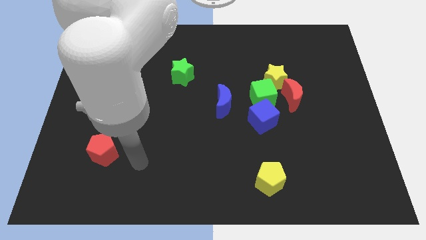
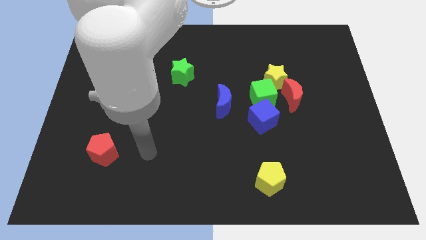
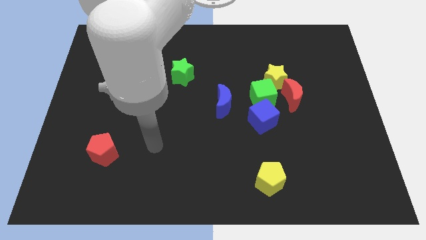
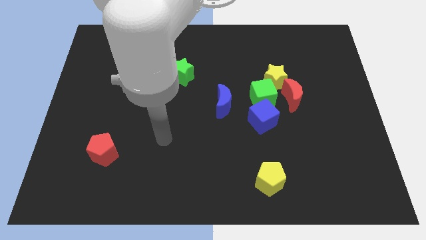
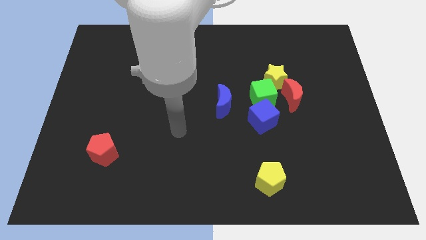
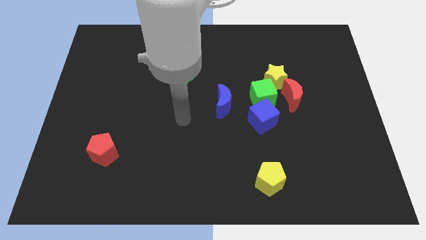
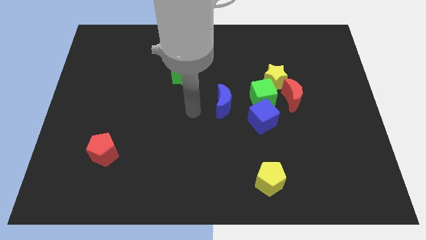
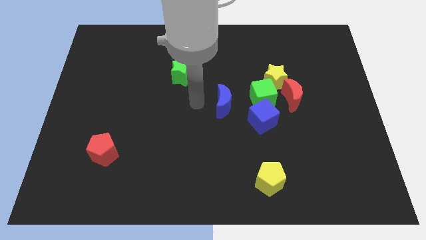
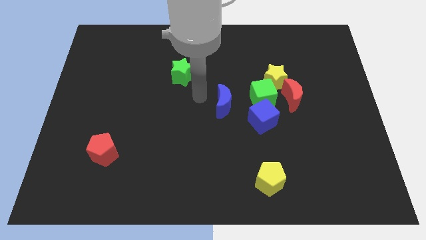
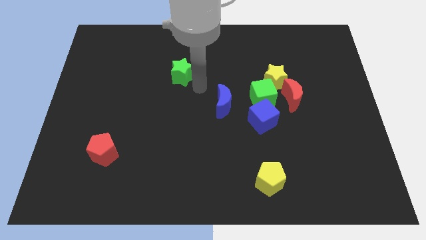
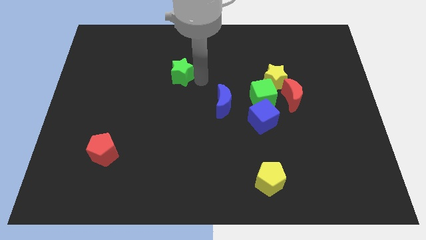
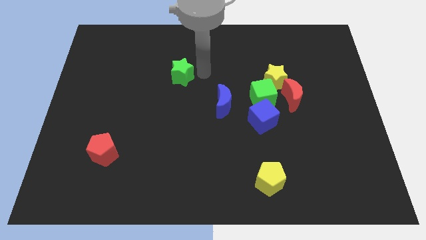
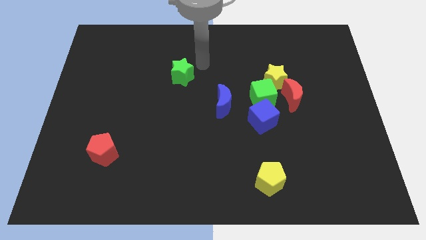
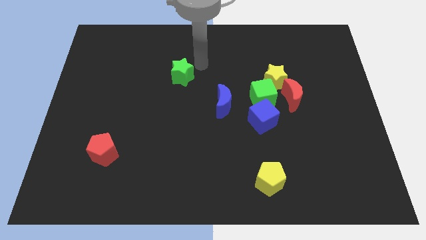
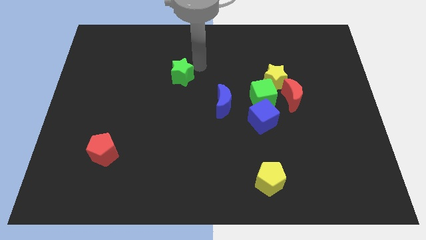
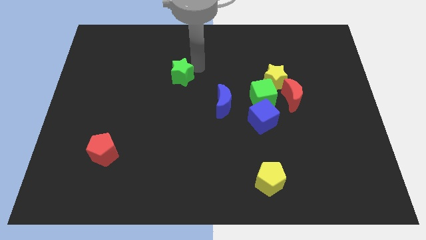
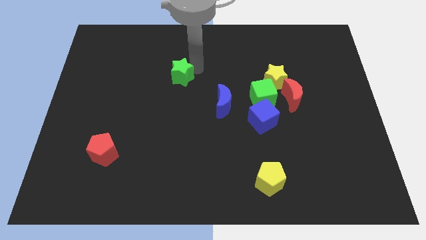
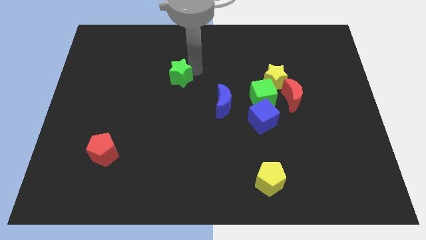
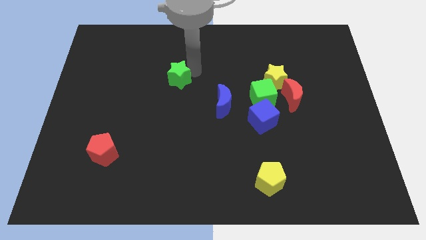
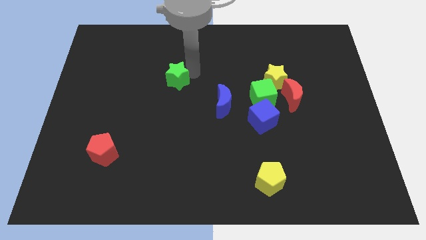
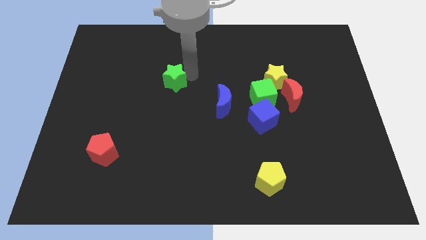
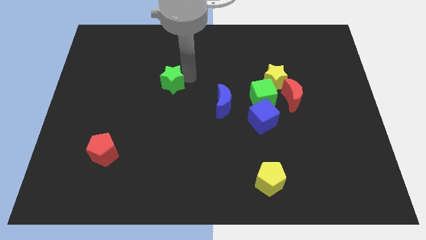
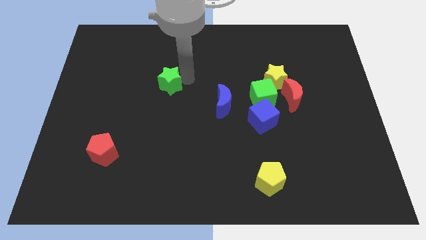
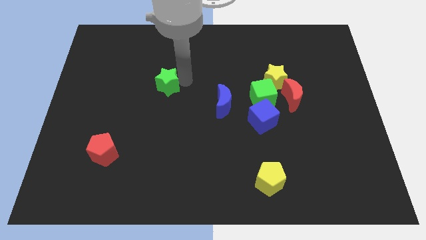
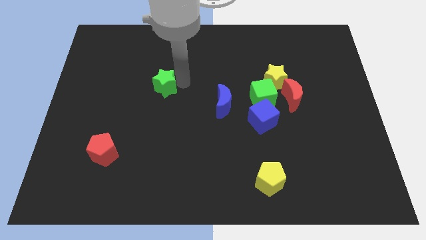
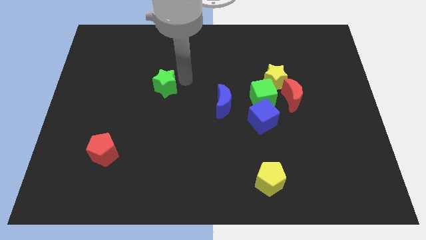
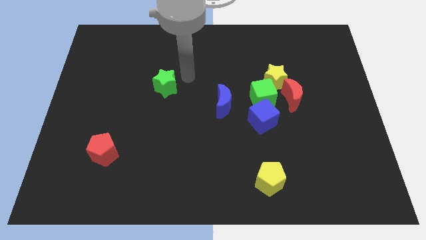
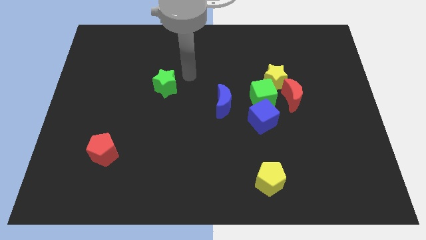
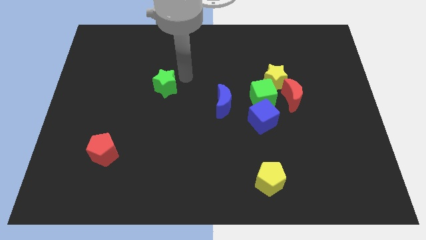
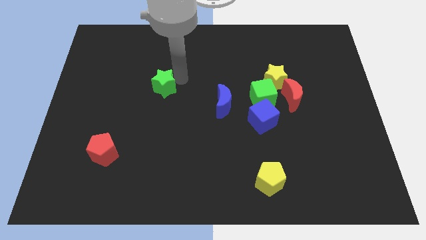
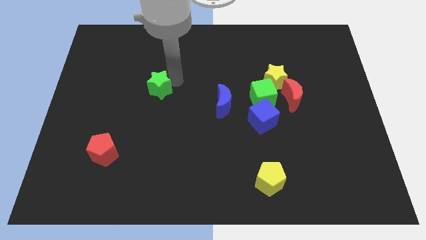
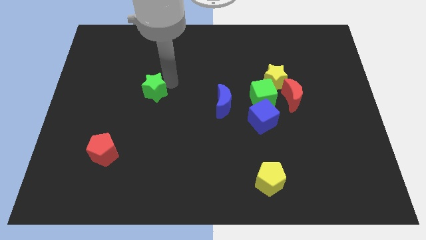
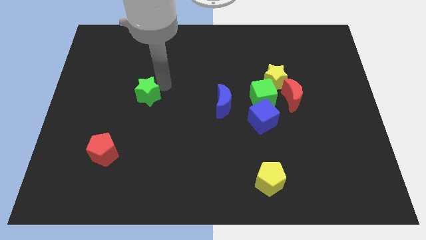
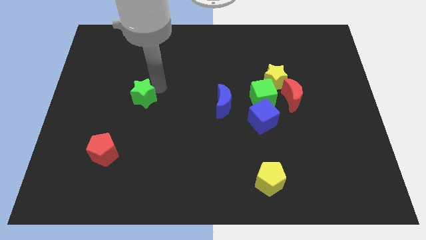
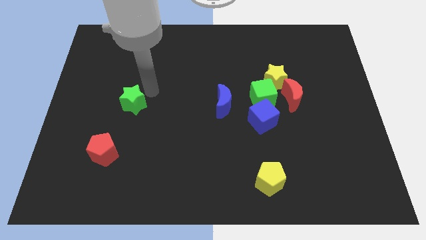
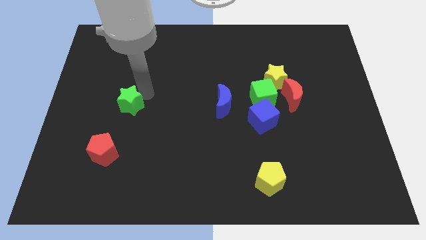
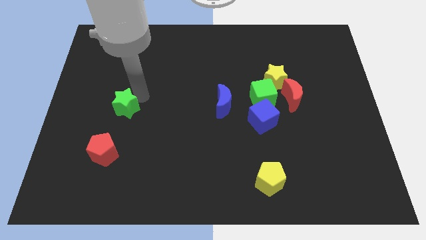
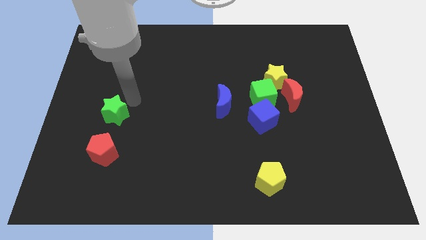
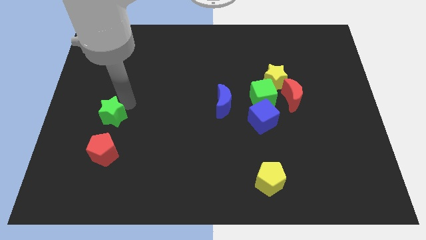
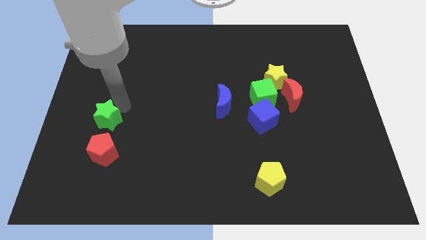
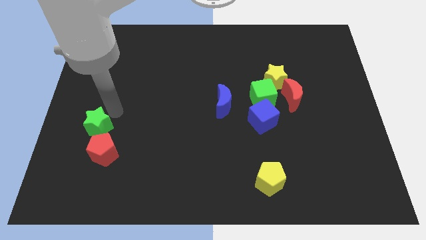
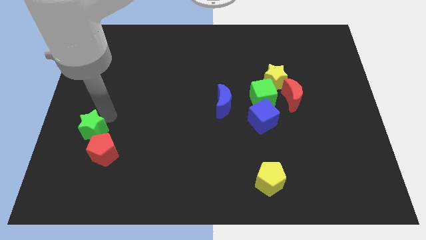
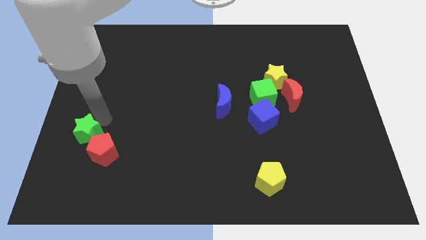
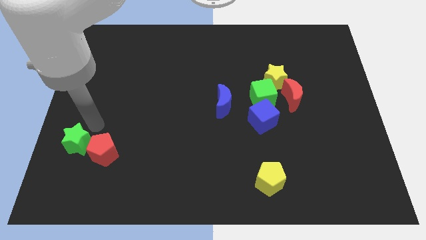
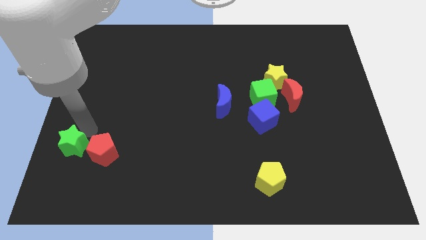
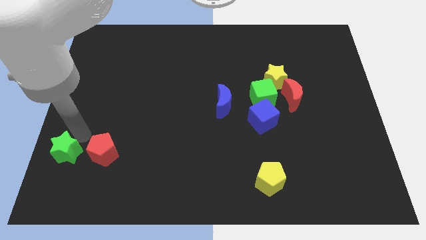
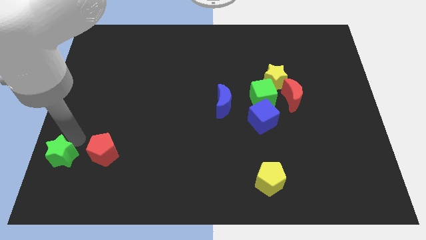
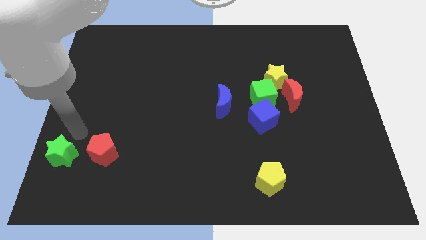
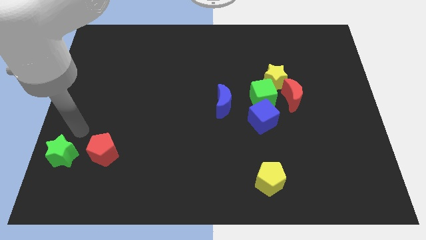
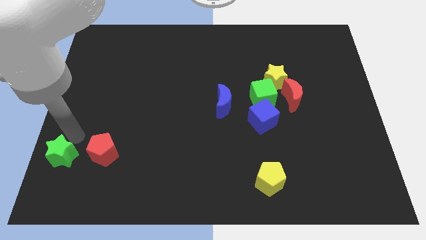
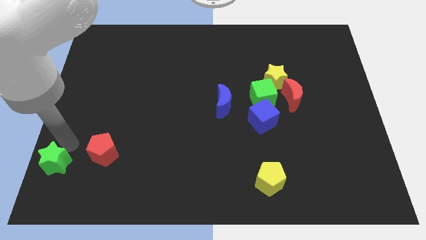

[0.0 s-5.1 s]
move the green star to the lower left corner

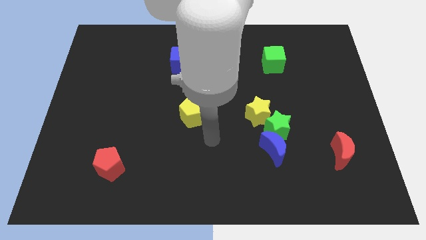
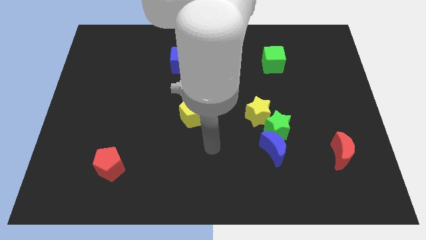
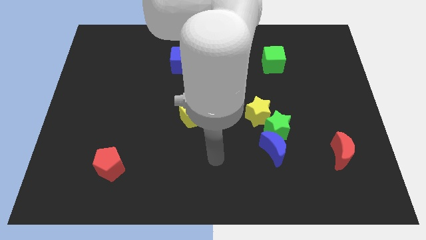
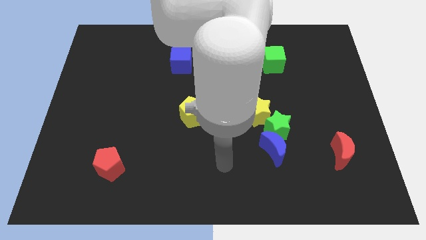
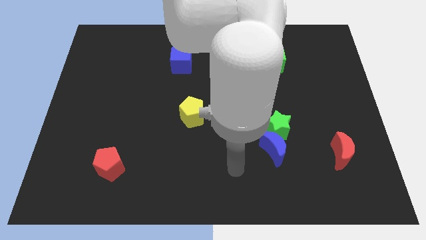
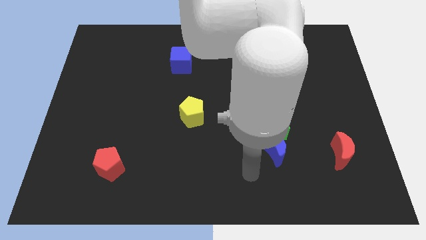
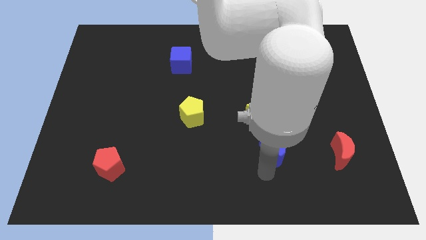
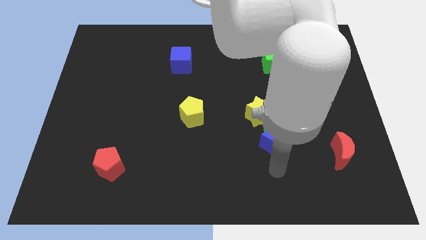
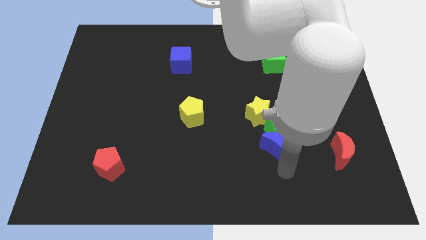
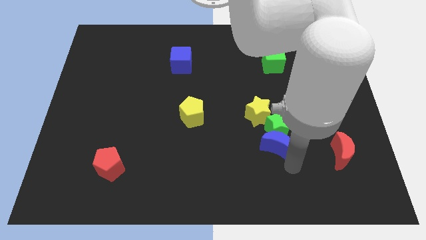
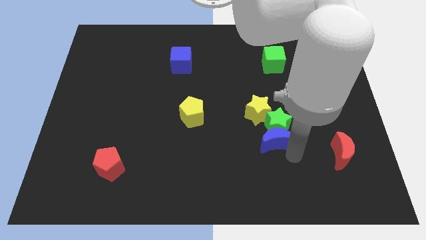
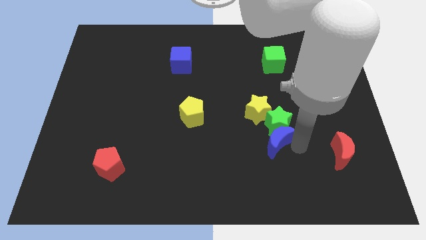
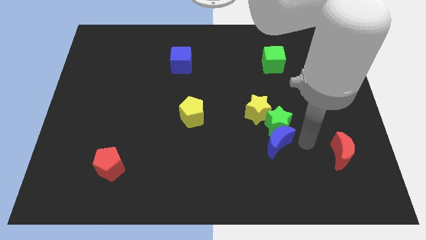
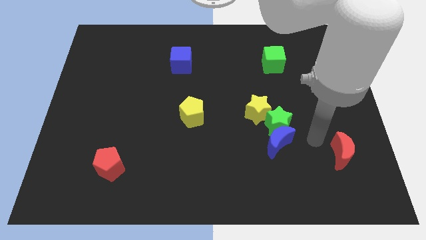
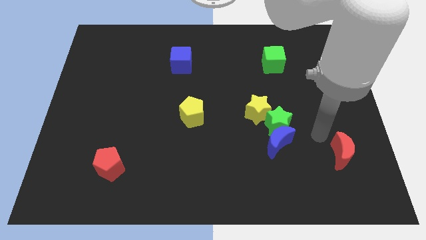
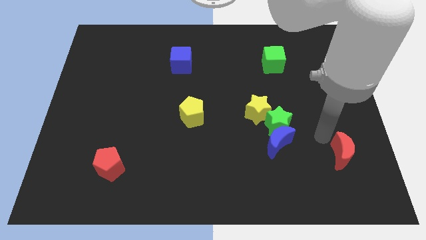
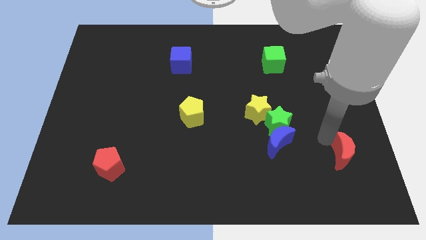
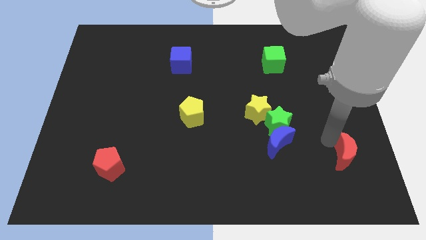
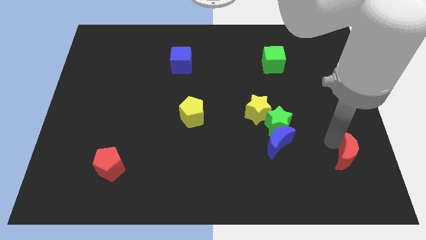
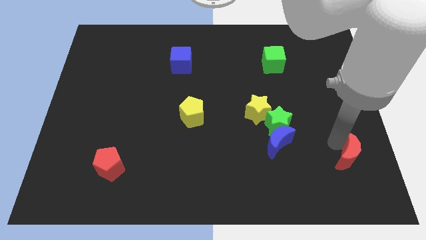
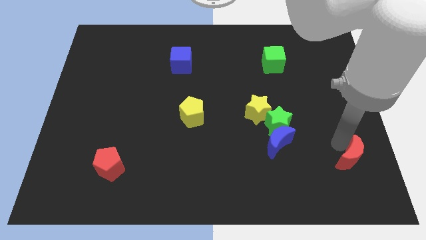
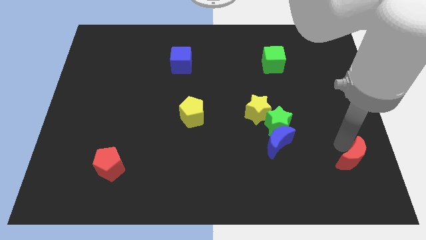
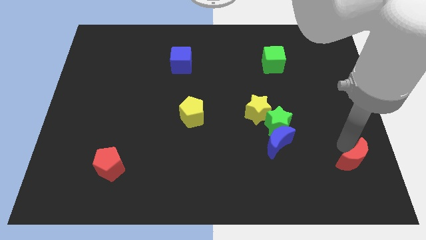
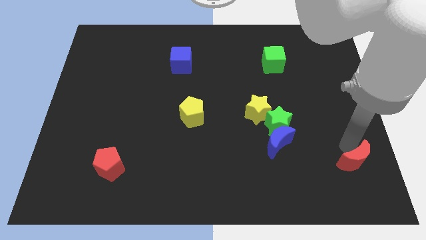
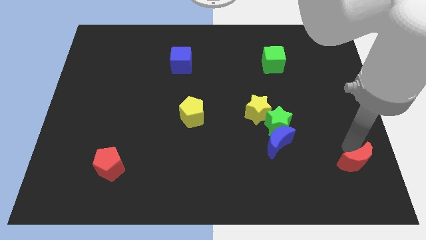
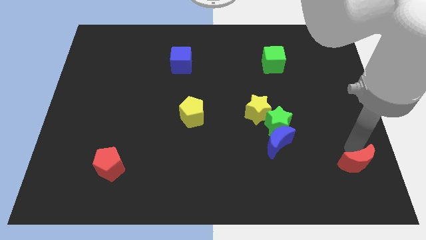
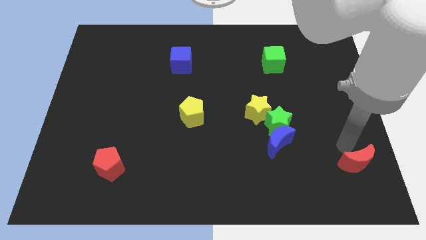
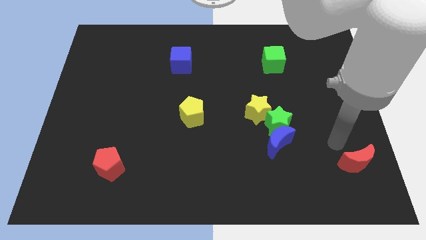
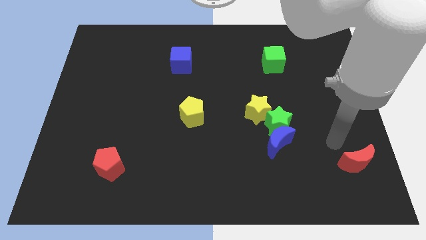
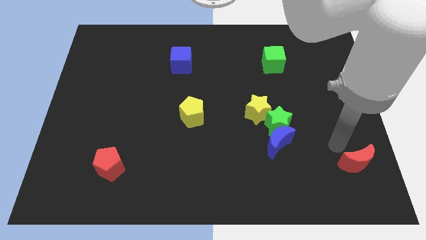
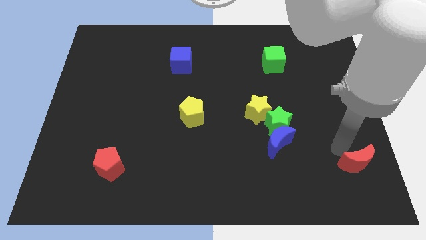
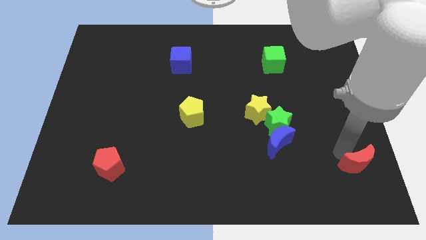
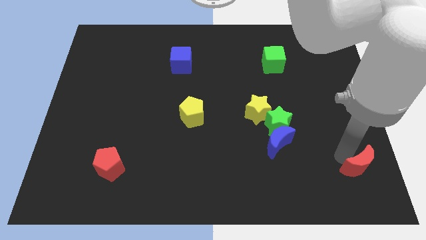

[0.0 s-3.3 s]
slide the red moon to the lower right corner
